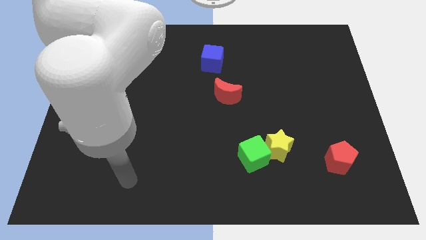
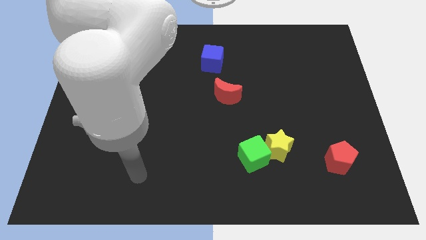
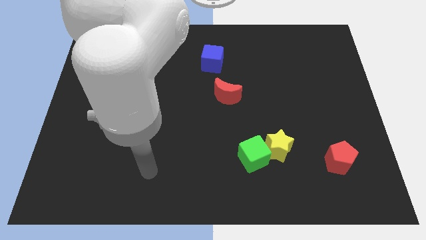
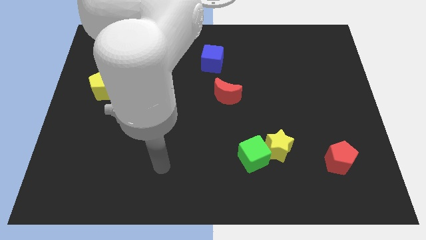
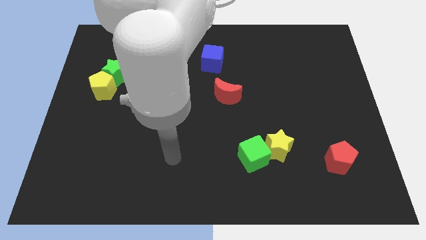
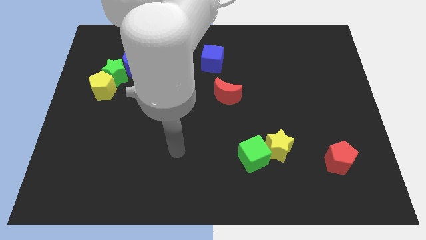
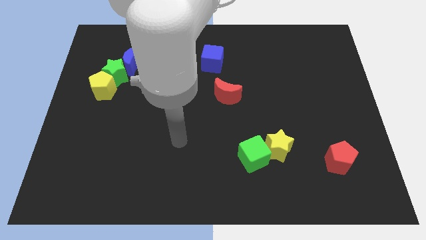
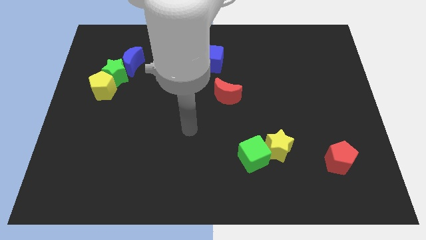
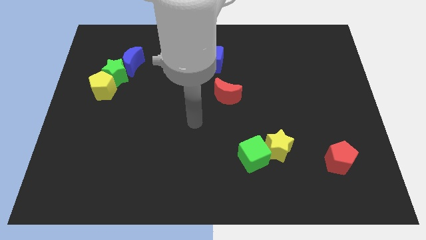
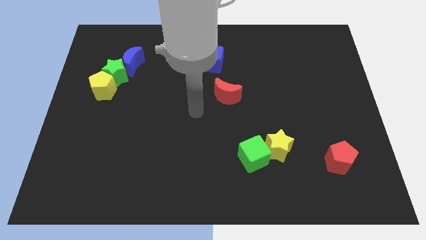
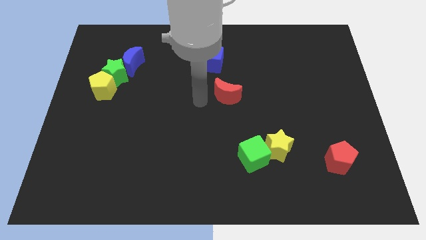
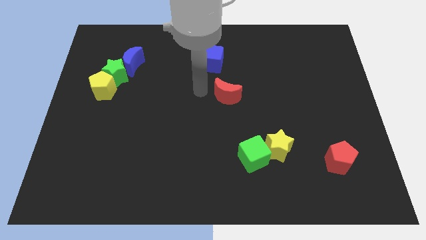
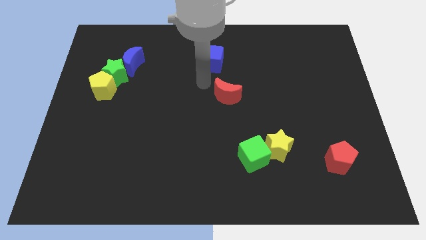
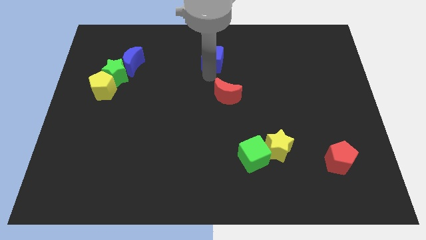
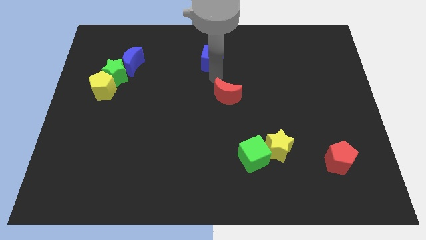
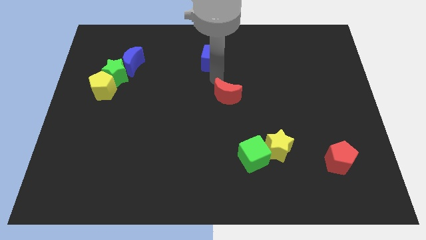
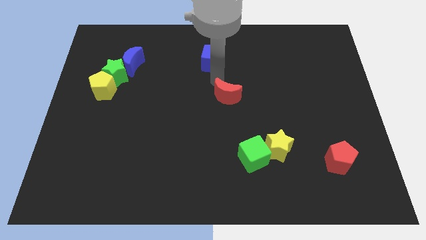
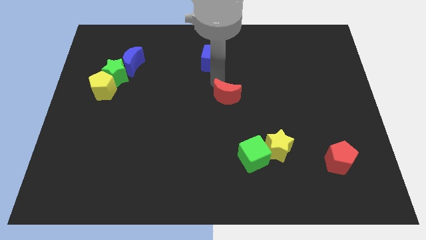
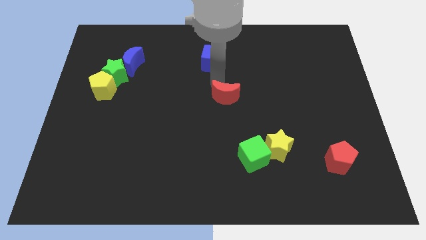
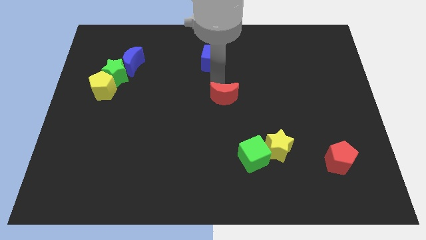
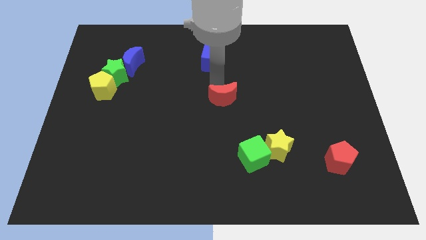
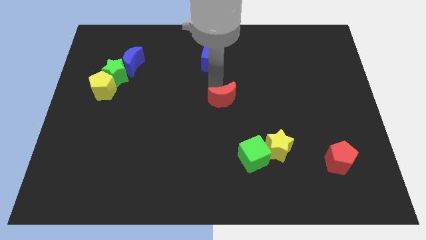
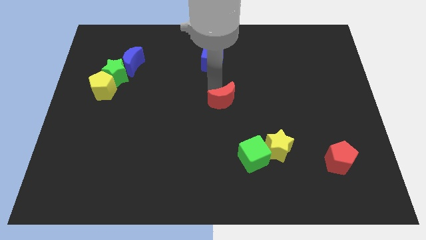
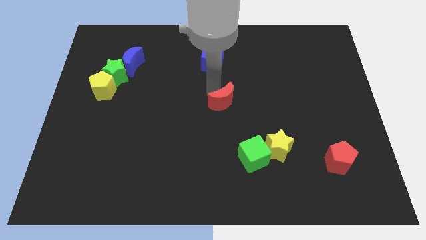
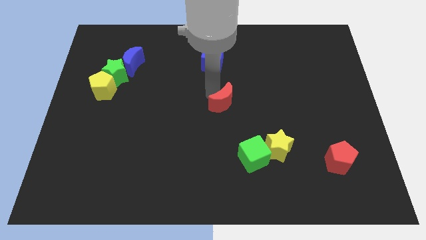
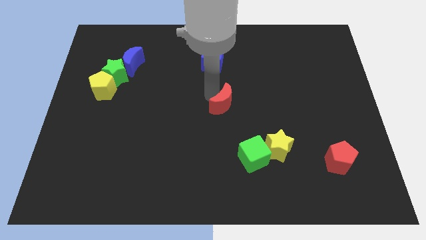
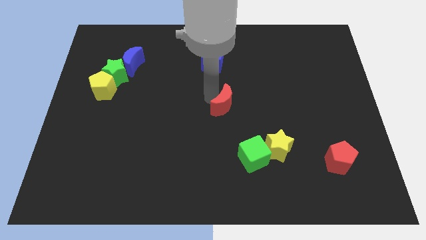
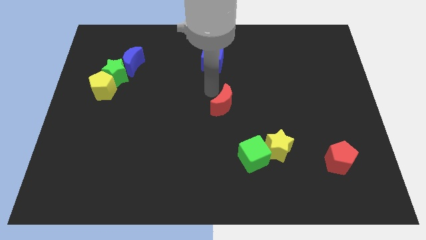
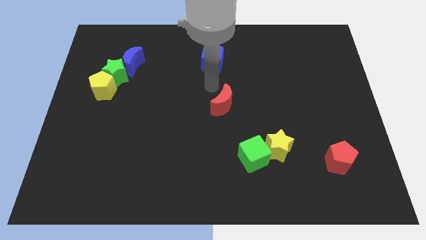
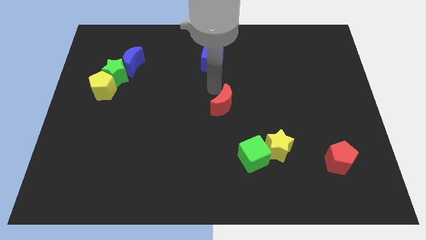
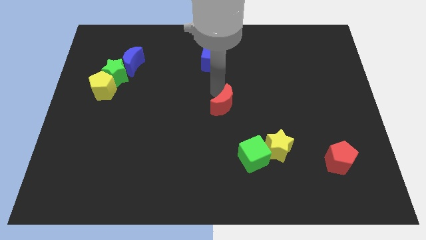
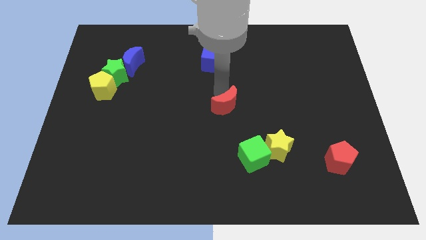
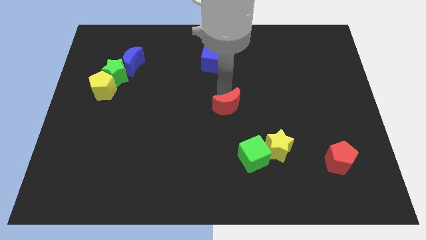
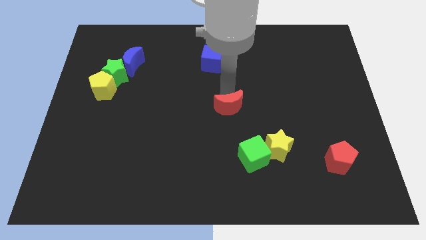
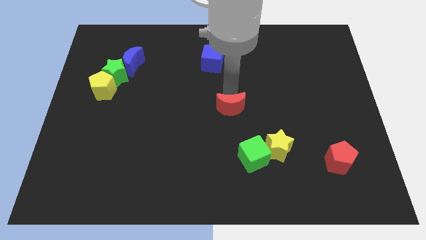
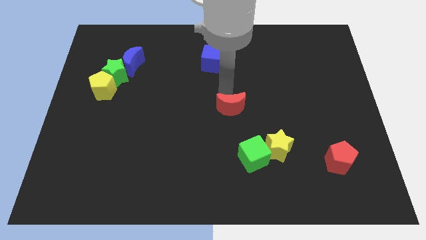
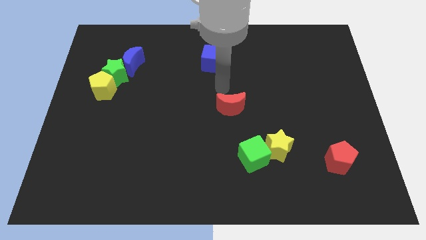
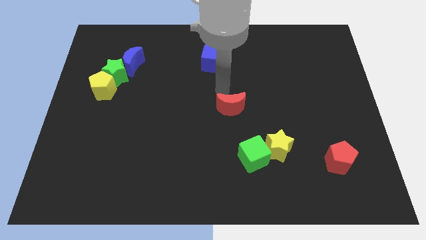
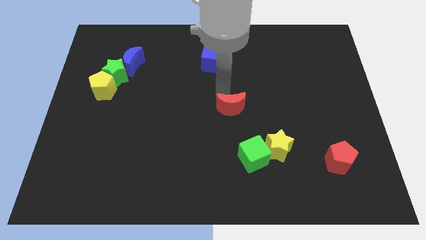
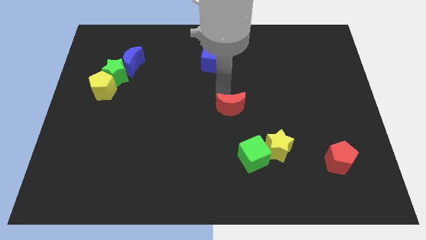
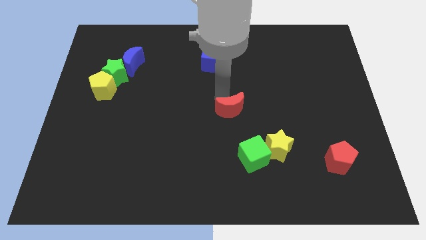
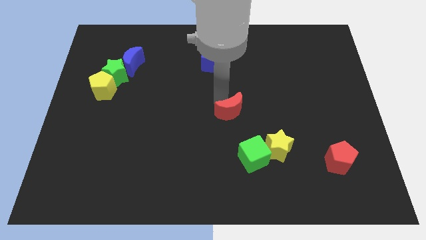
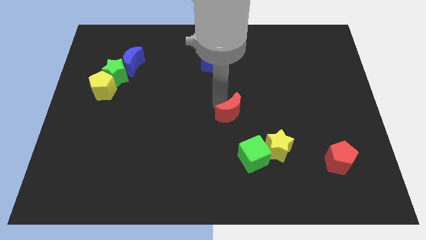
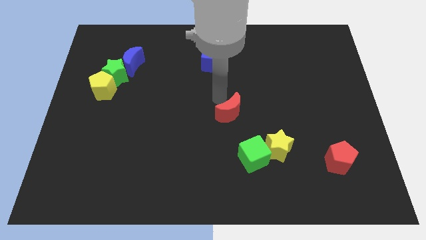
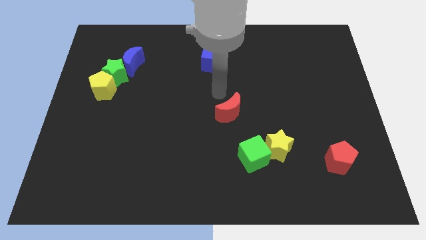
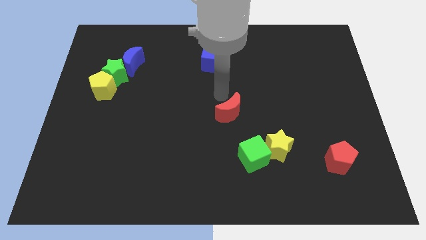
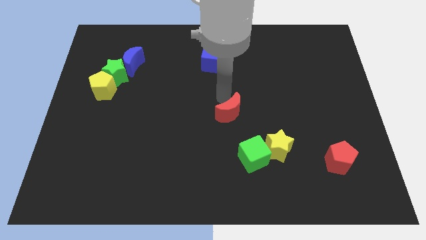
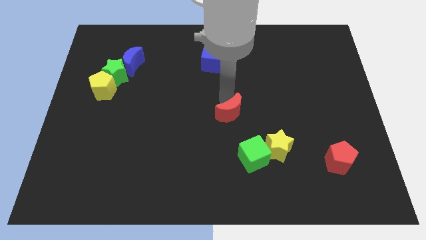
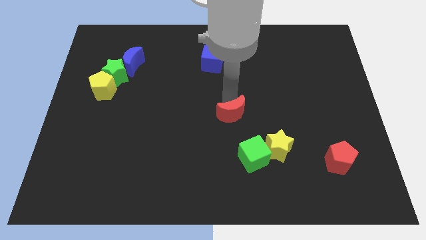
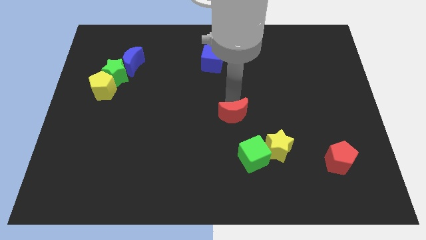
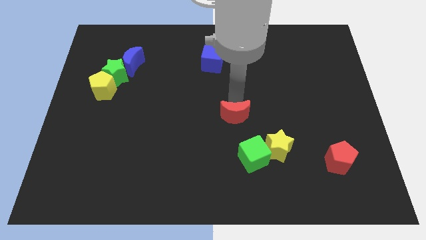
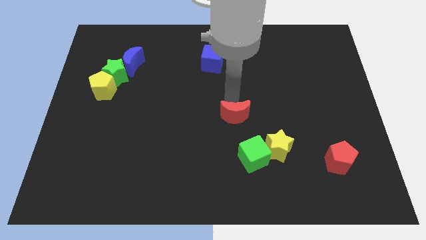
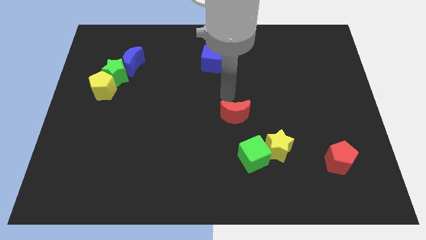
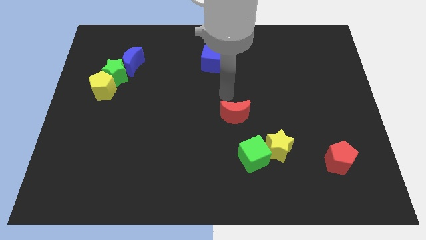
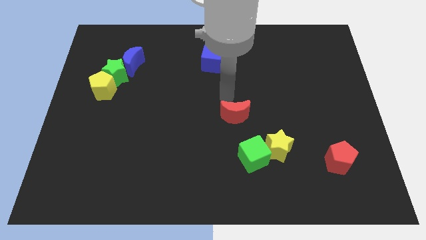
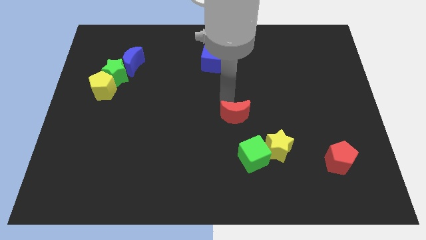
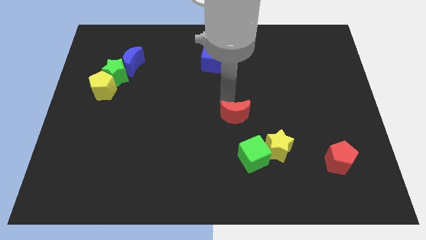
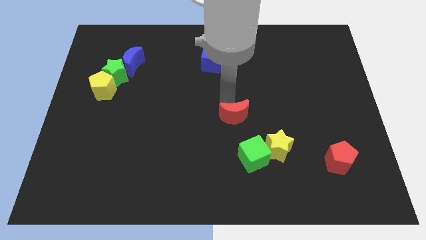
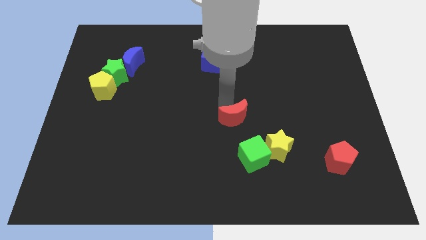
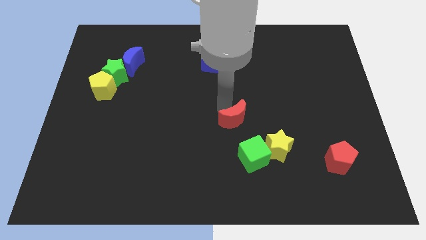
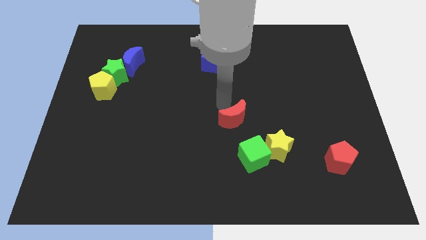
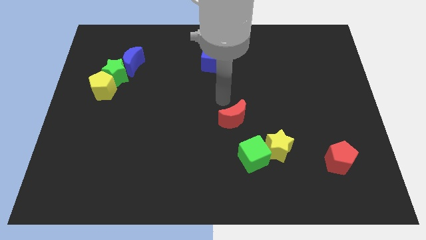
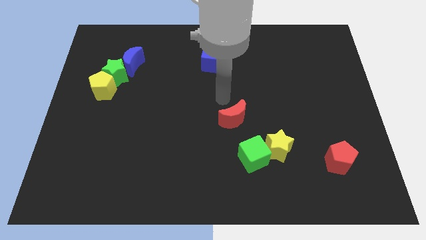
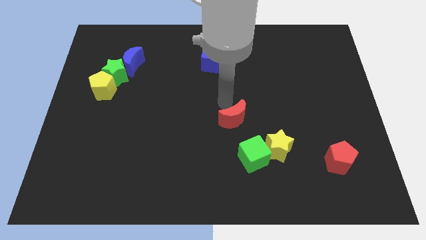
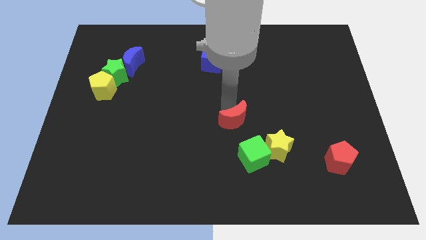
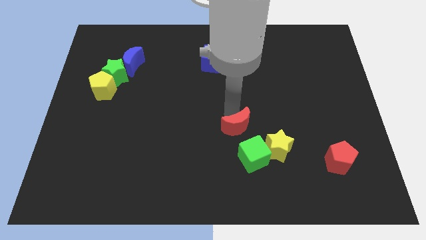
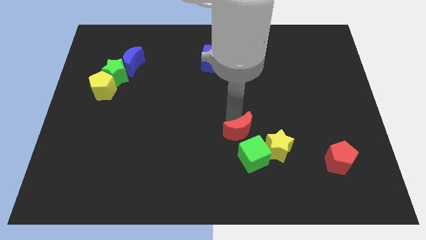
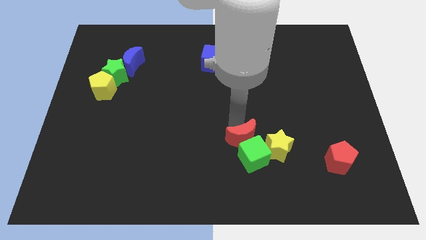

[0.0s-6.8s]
push the red moon next to the green cube

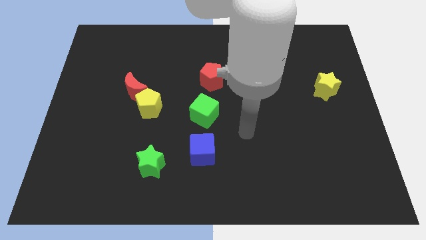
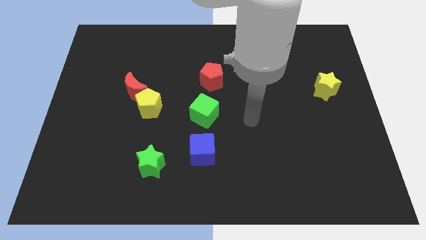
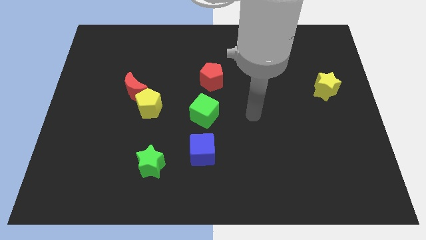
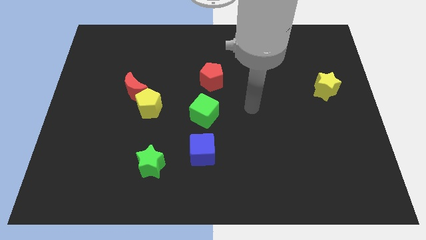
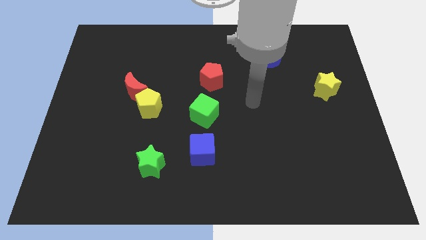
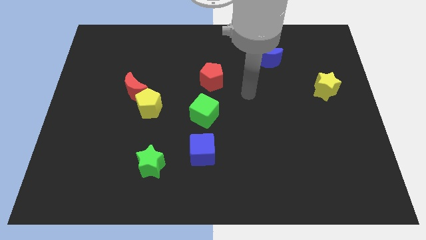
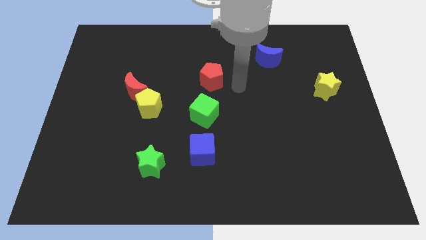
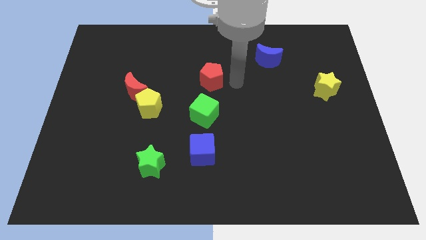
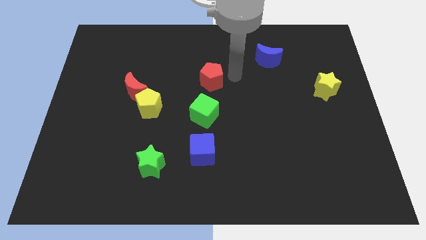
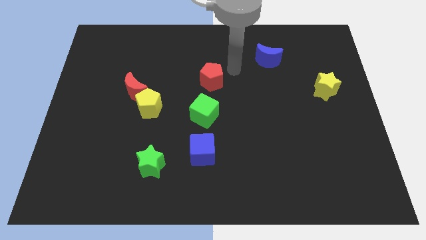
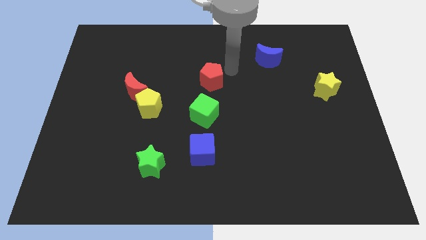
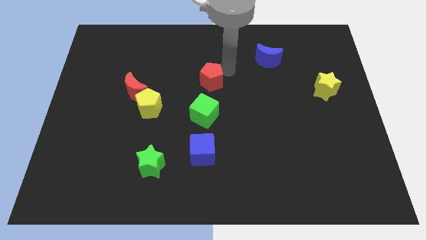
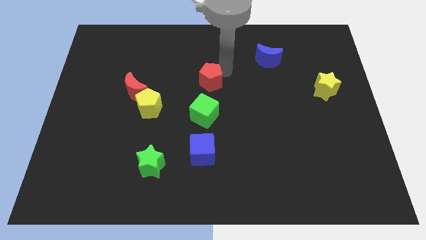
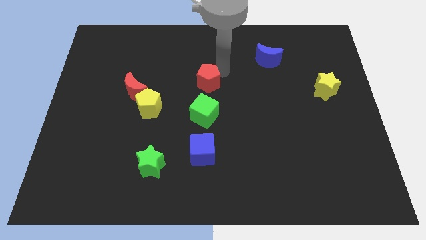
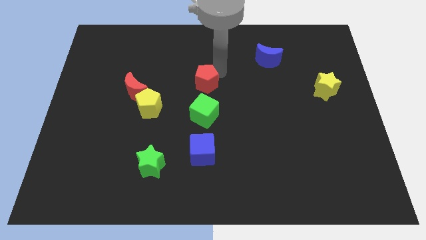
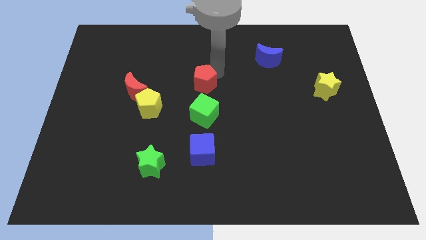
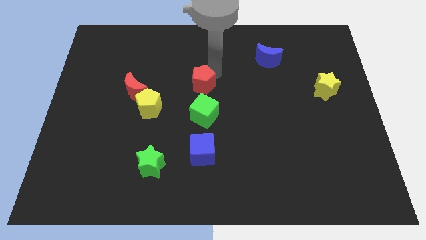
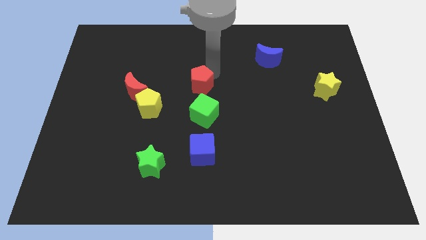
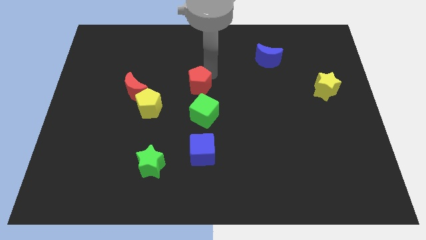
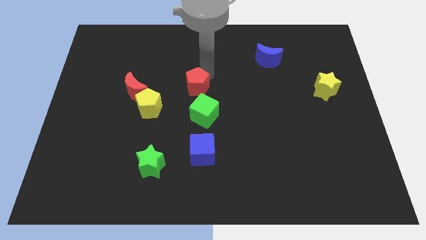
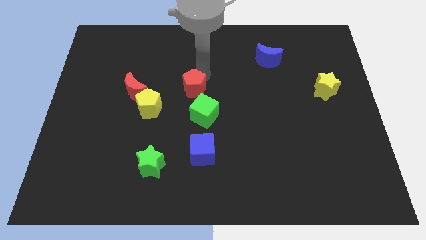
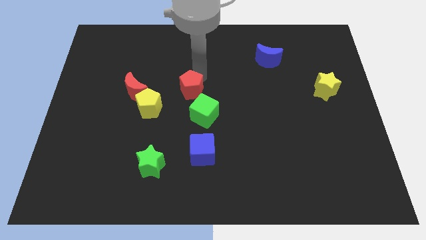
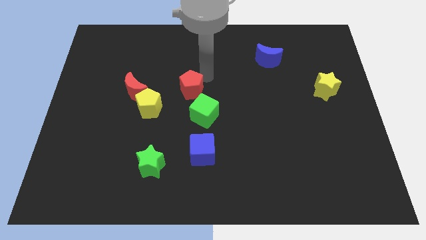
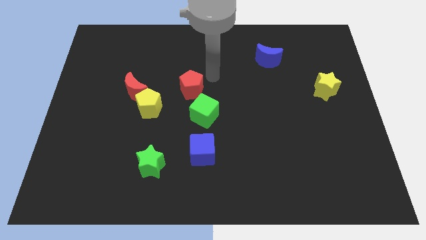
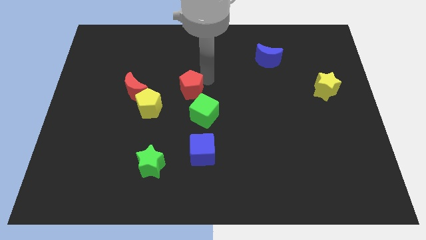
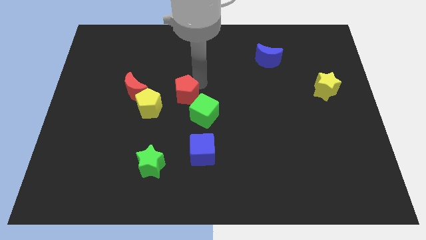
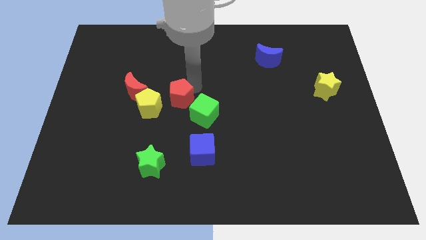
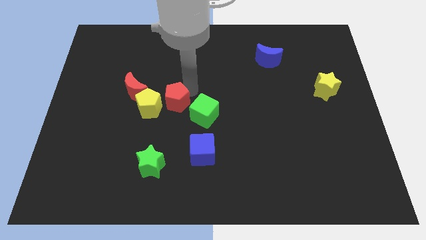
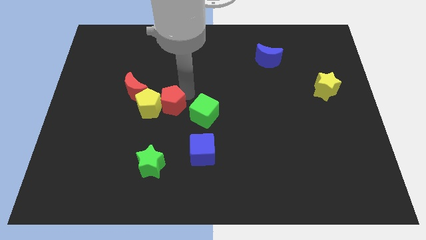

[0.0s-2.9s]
push the red pentagon close to the yellow pentagon
